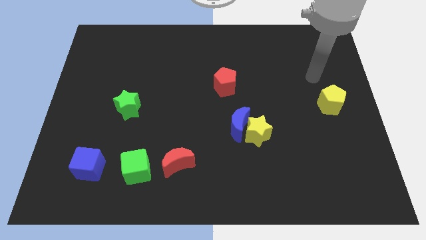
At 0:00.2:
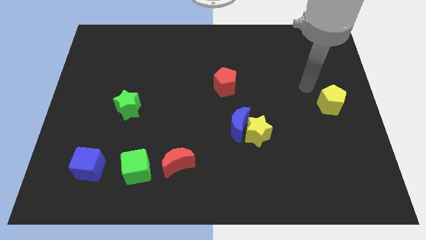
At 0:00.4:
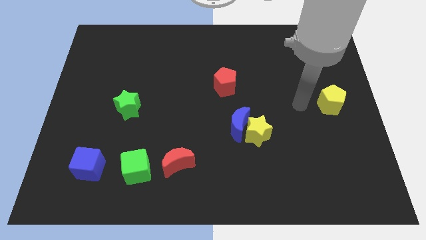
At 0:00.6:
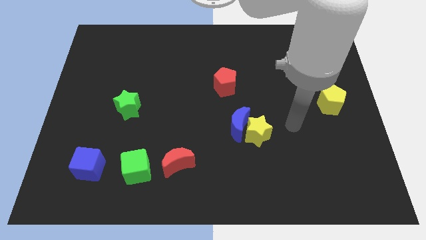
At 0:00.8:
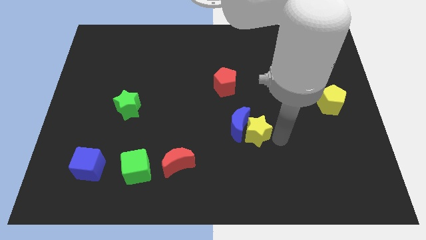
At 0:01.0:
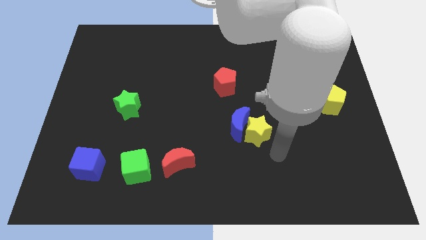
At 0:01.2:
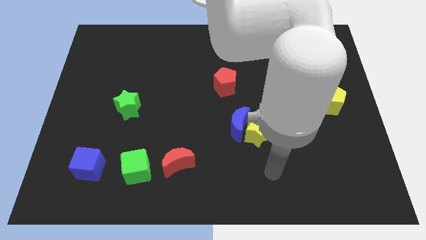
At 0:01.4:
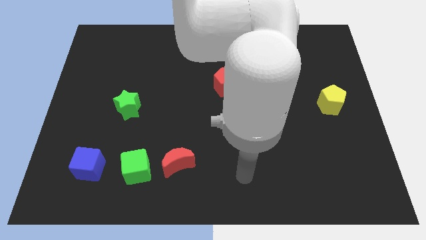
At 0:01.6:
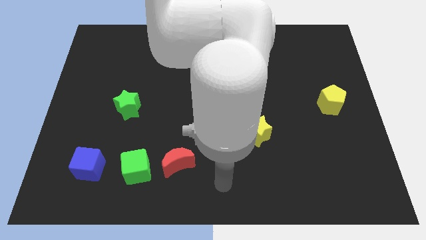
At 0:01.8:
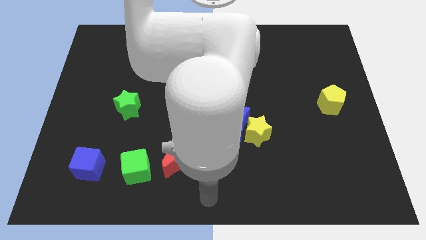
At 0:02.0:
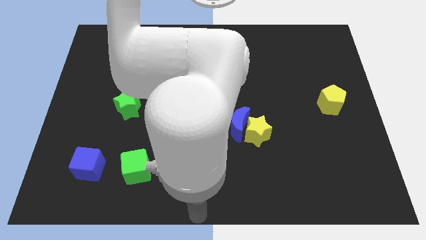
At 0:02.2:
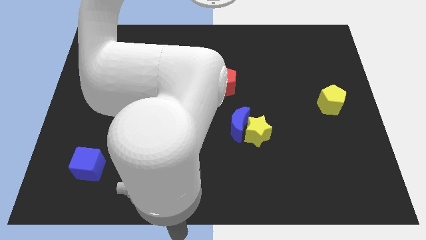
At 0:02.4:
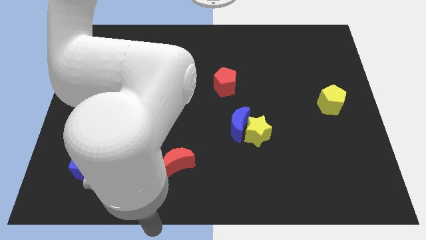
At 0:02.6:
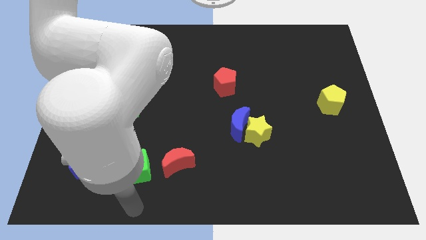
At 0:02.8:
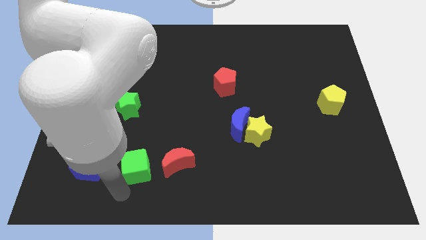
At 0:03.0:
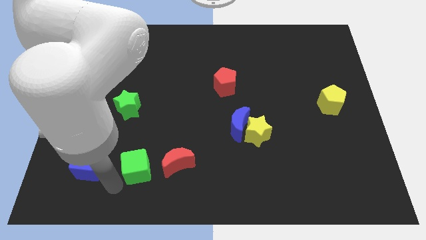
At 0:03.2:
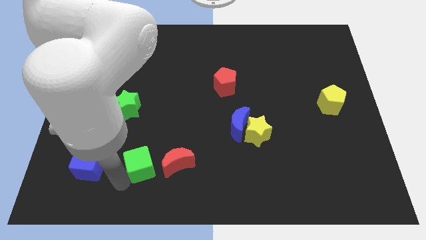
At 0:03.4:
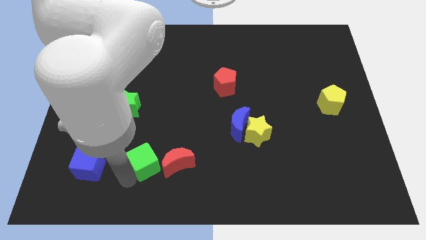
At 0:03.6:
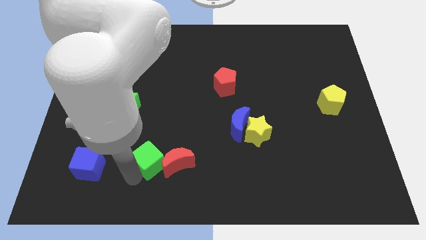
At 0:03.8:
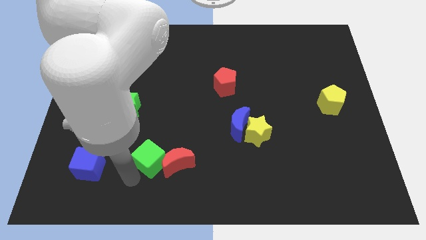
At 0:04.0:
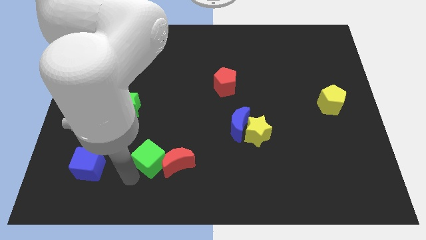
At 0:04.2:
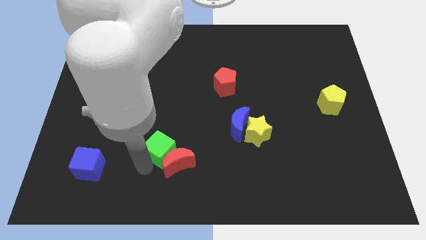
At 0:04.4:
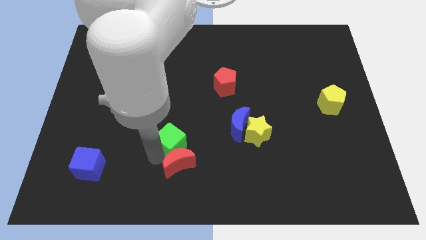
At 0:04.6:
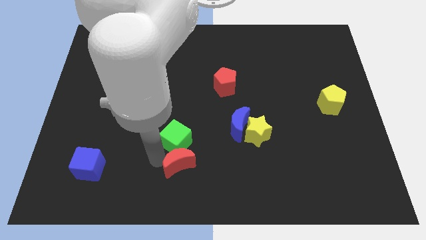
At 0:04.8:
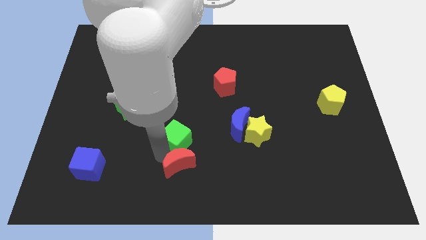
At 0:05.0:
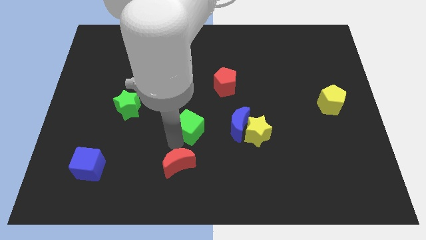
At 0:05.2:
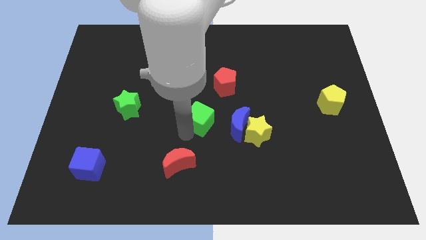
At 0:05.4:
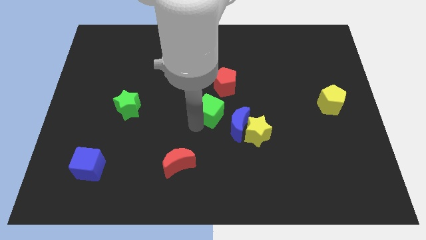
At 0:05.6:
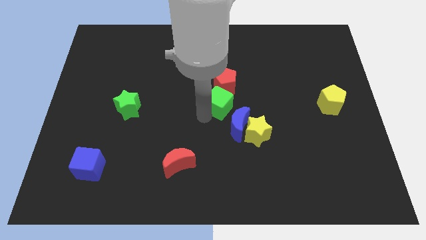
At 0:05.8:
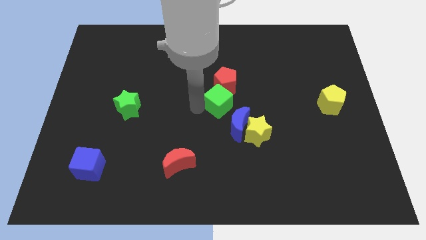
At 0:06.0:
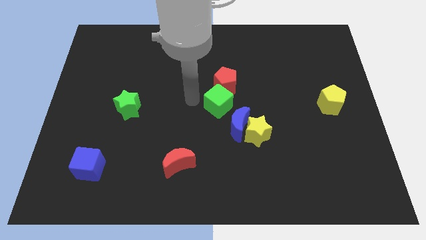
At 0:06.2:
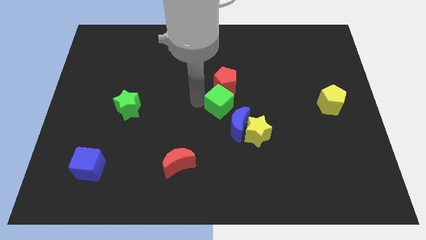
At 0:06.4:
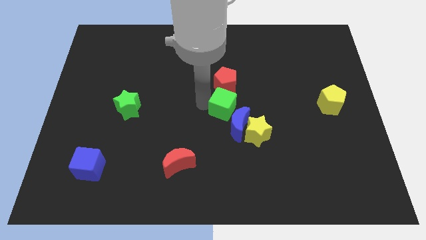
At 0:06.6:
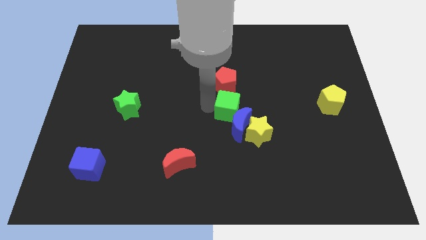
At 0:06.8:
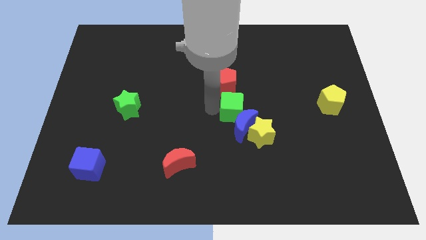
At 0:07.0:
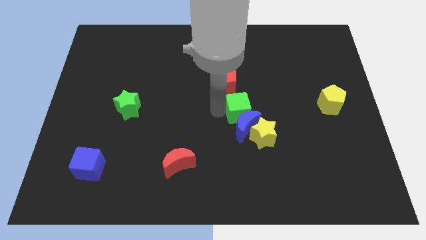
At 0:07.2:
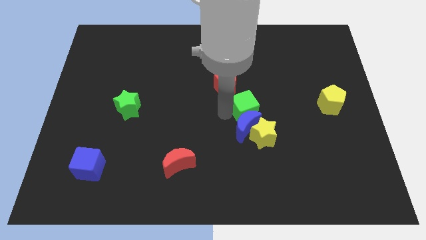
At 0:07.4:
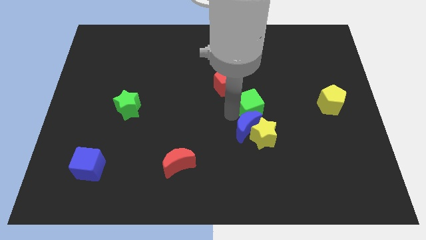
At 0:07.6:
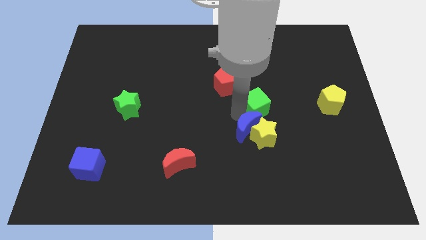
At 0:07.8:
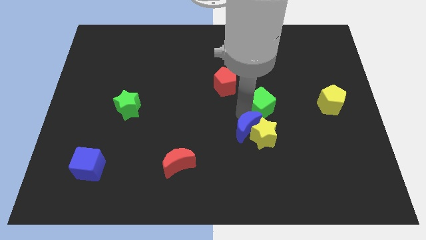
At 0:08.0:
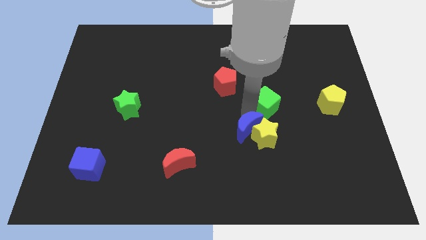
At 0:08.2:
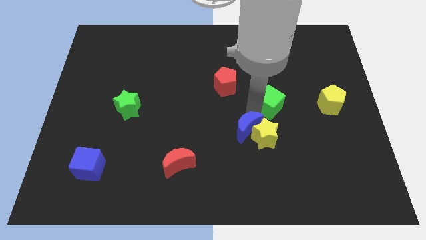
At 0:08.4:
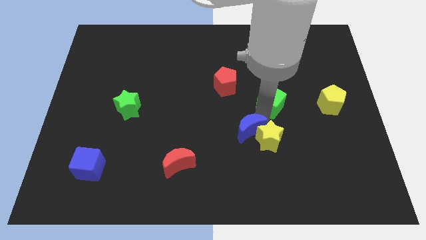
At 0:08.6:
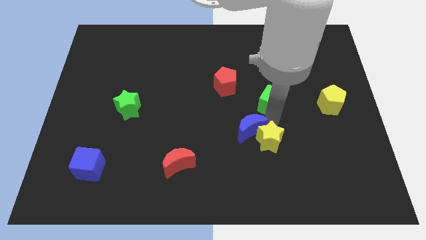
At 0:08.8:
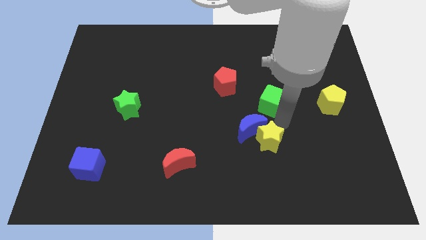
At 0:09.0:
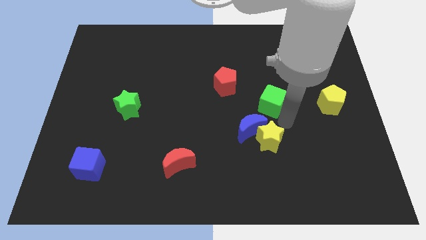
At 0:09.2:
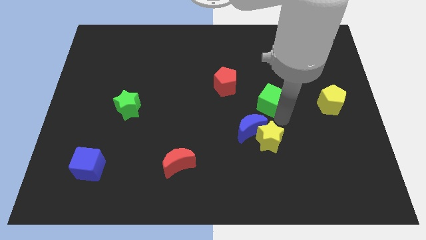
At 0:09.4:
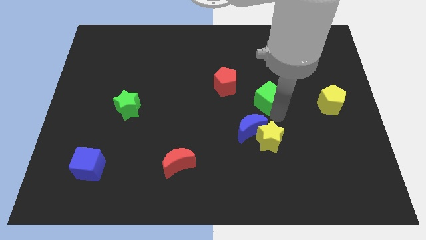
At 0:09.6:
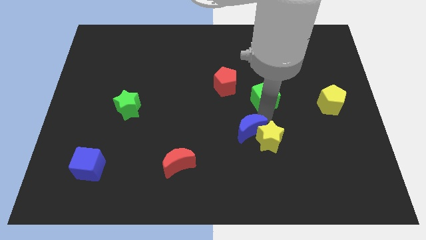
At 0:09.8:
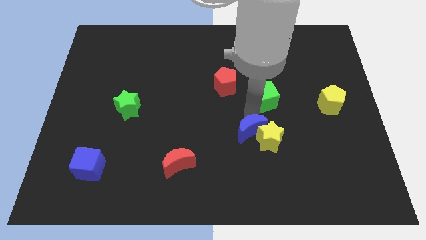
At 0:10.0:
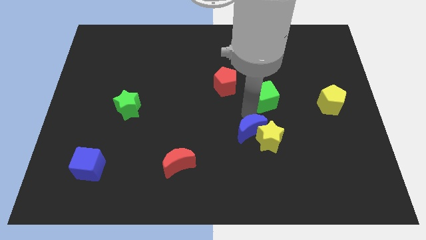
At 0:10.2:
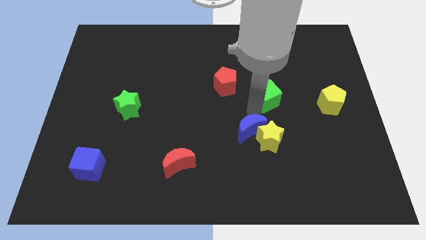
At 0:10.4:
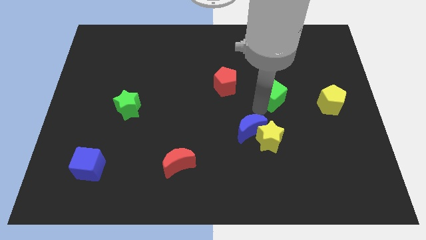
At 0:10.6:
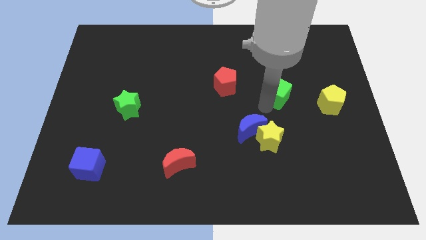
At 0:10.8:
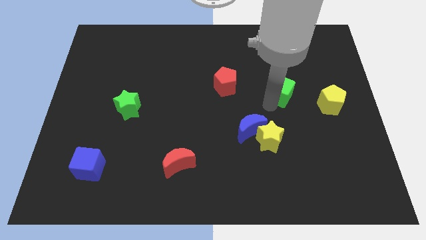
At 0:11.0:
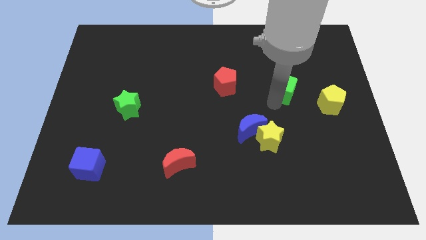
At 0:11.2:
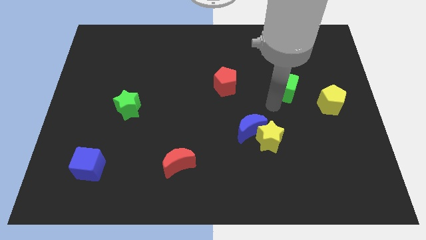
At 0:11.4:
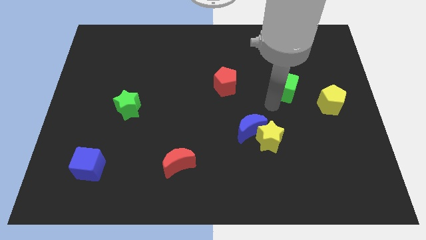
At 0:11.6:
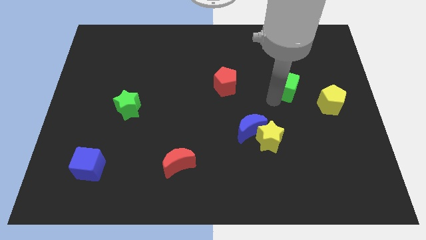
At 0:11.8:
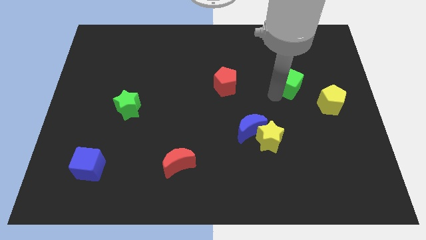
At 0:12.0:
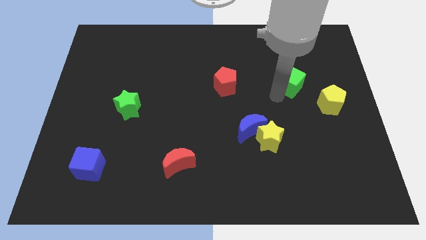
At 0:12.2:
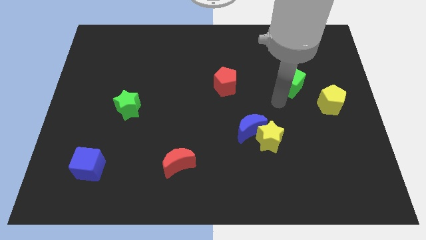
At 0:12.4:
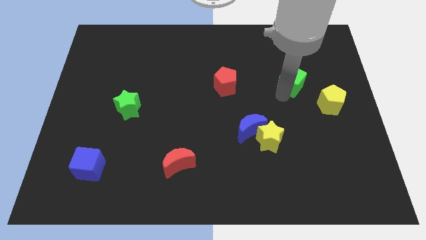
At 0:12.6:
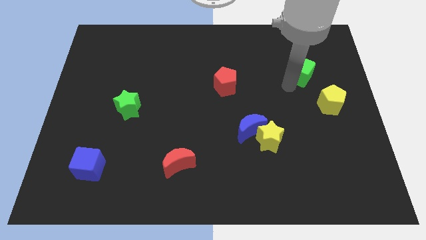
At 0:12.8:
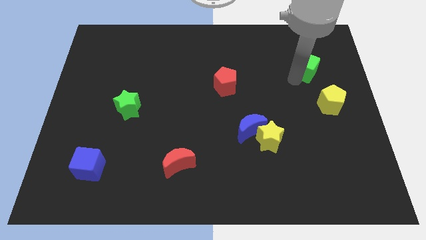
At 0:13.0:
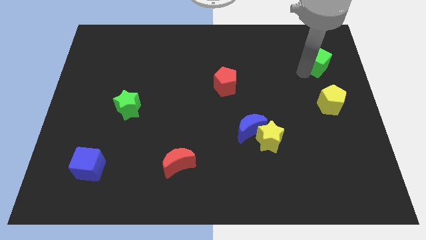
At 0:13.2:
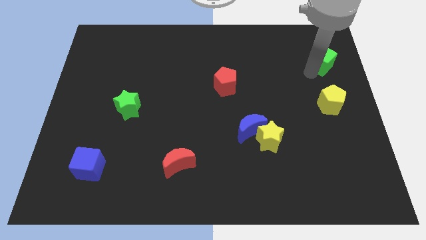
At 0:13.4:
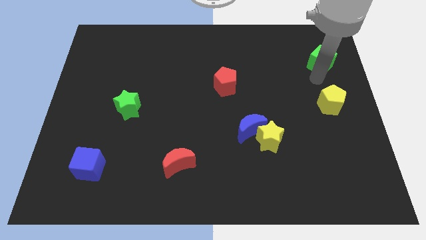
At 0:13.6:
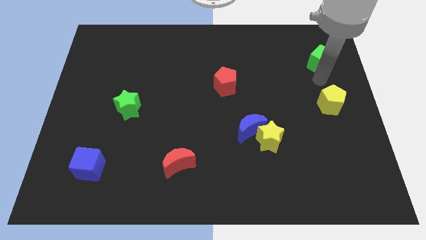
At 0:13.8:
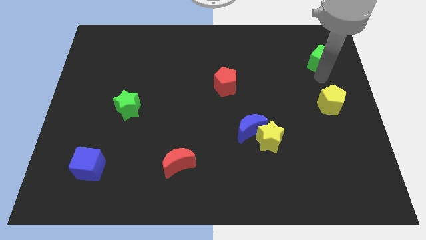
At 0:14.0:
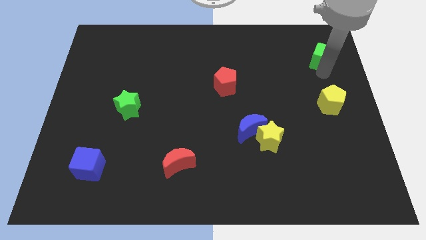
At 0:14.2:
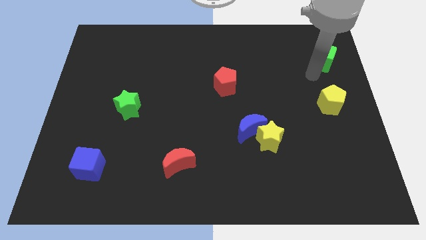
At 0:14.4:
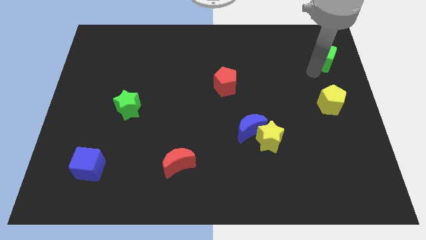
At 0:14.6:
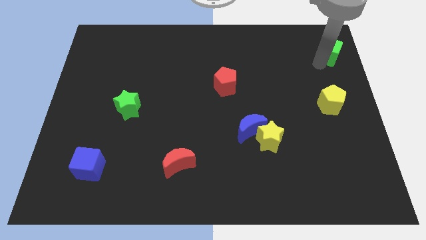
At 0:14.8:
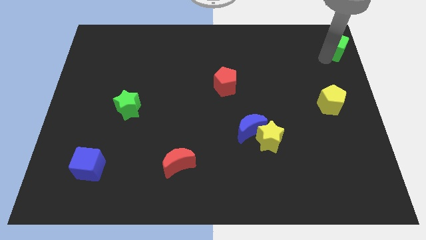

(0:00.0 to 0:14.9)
push the green cube to the top right
